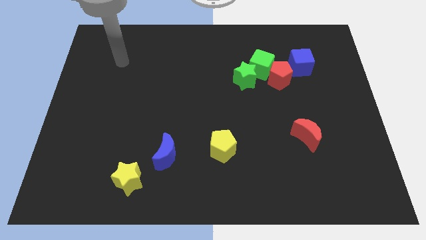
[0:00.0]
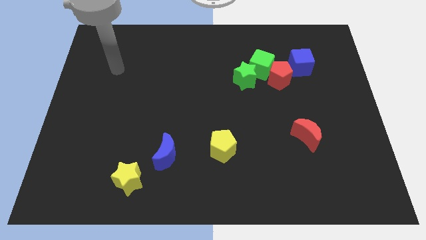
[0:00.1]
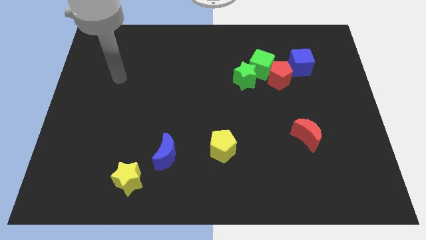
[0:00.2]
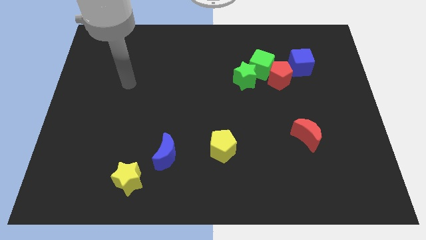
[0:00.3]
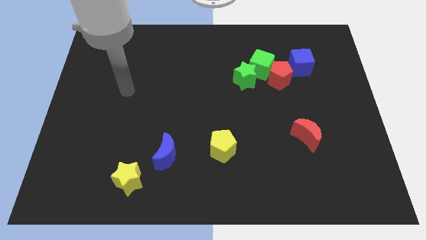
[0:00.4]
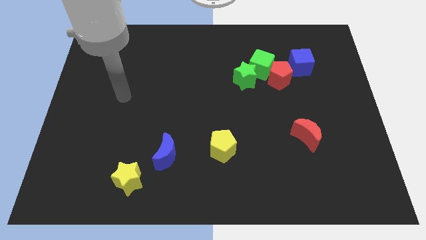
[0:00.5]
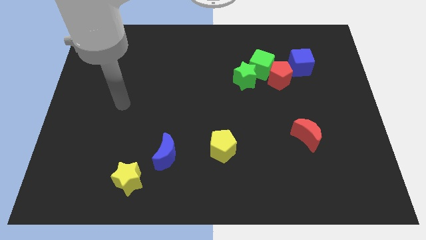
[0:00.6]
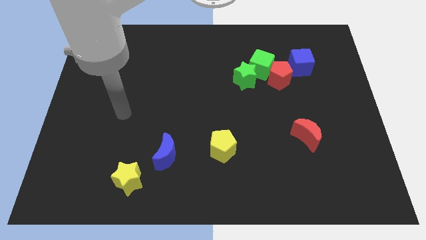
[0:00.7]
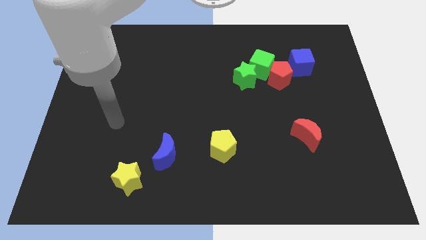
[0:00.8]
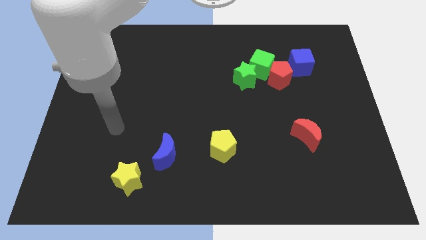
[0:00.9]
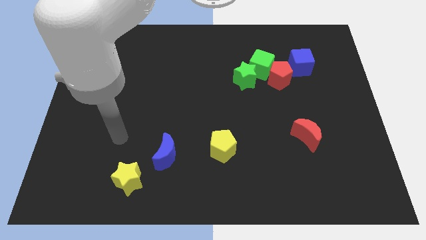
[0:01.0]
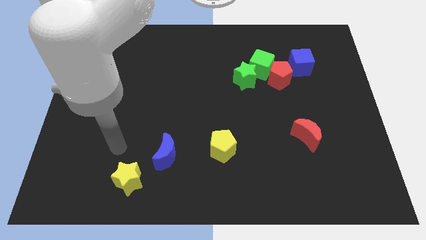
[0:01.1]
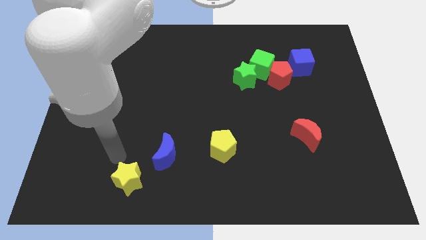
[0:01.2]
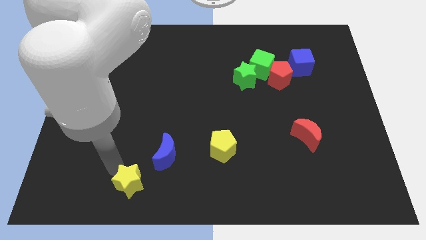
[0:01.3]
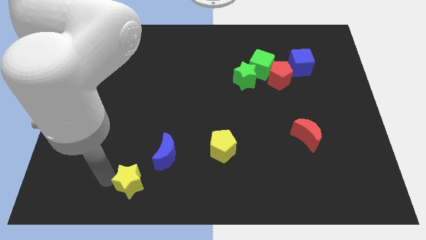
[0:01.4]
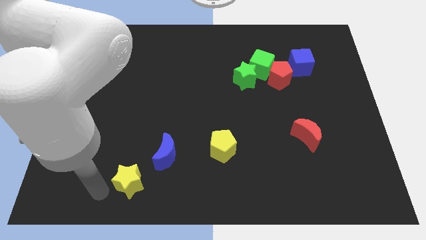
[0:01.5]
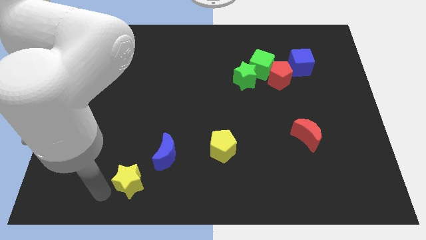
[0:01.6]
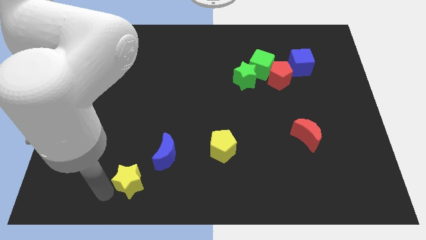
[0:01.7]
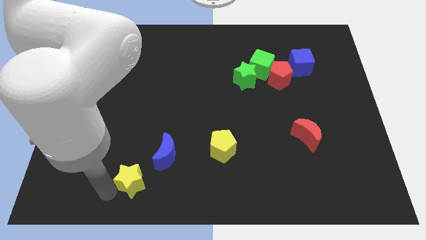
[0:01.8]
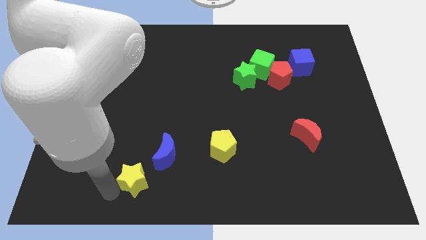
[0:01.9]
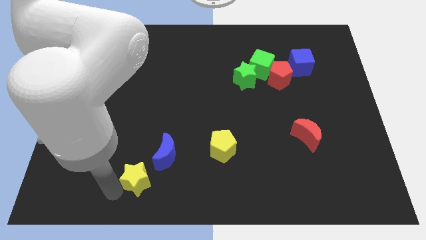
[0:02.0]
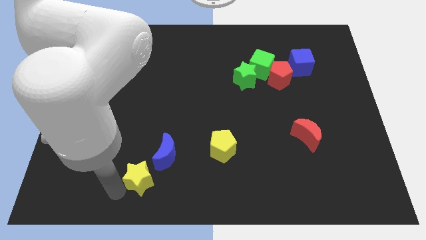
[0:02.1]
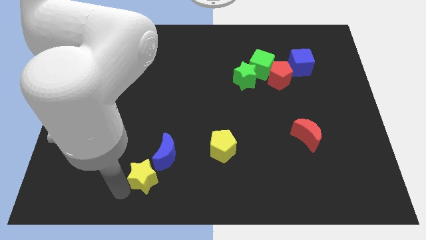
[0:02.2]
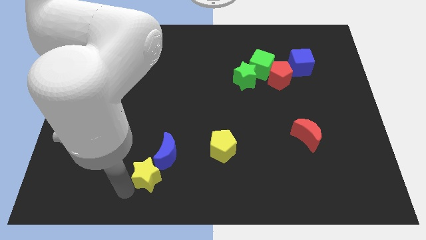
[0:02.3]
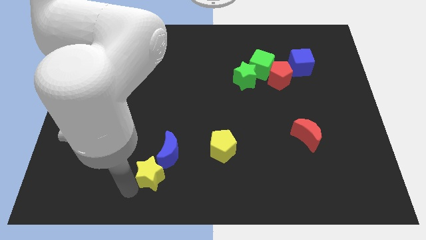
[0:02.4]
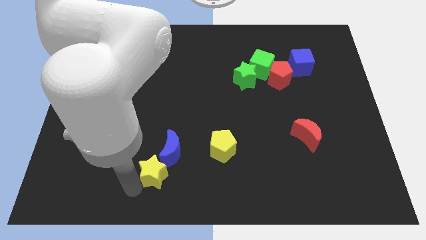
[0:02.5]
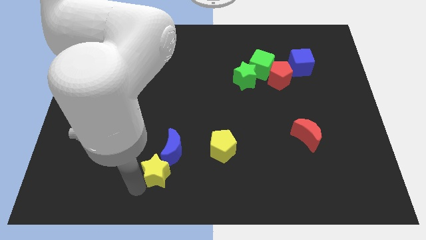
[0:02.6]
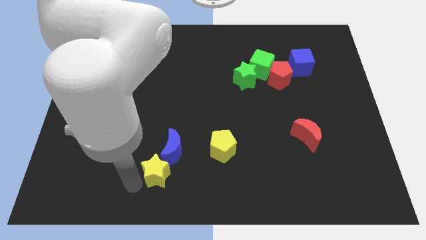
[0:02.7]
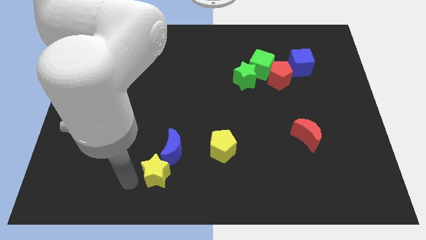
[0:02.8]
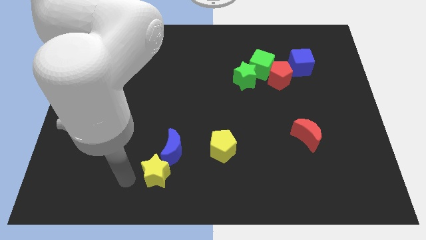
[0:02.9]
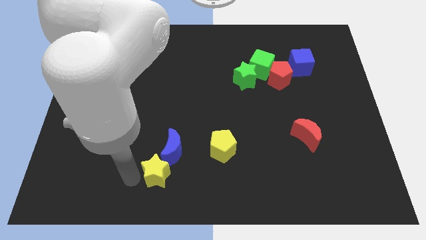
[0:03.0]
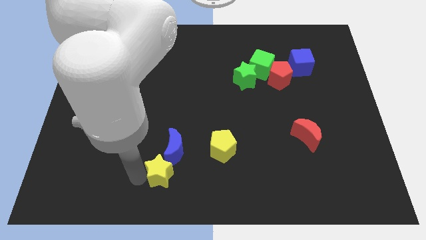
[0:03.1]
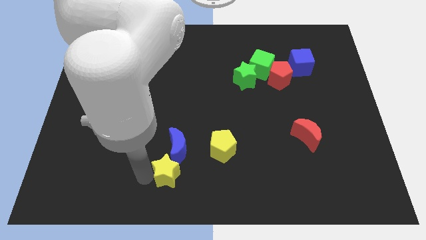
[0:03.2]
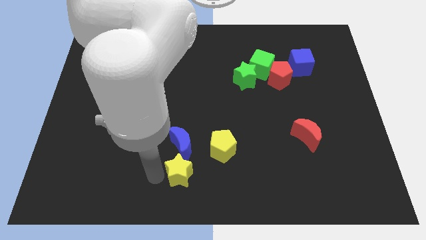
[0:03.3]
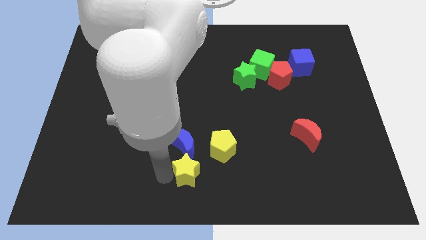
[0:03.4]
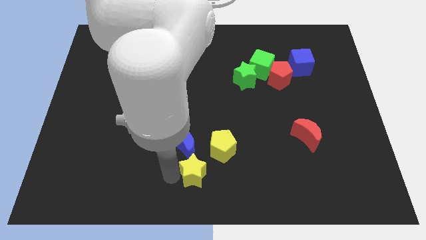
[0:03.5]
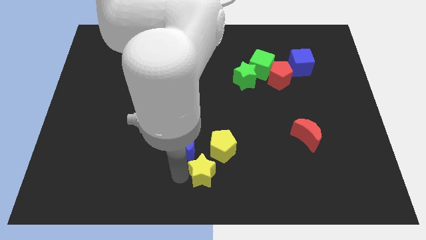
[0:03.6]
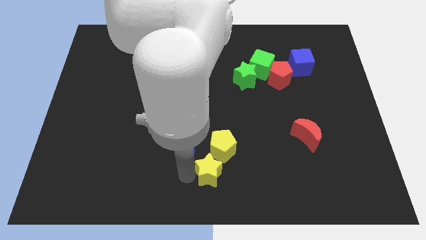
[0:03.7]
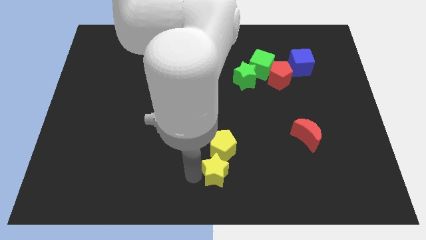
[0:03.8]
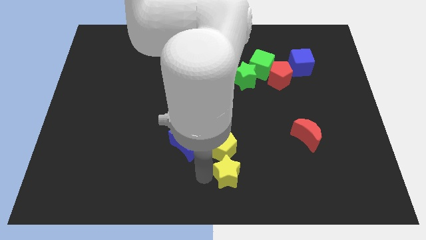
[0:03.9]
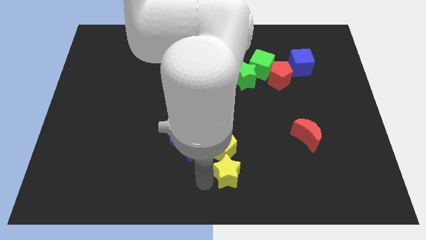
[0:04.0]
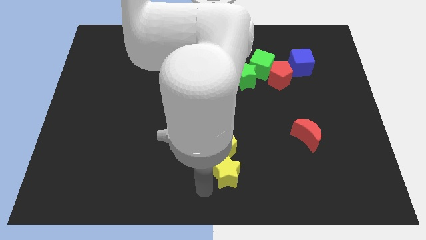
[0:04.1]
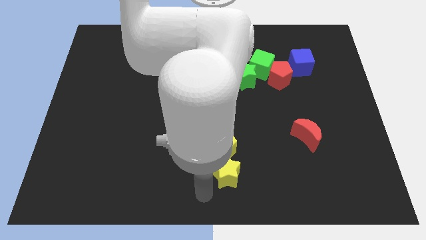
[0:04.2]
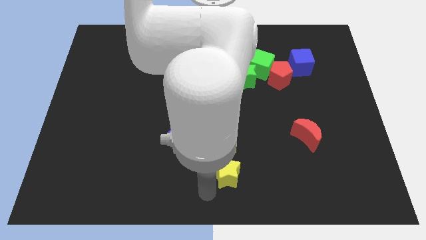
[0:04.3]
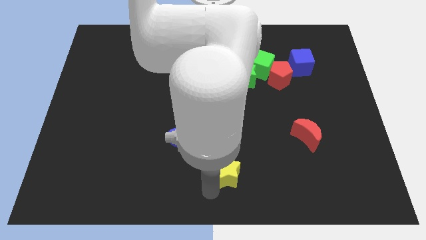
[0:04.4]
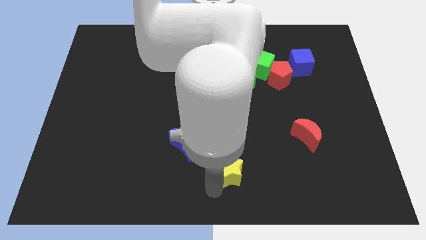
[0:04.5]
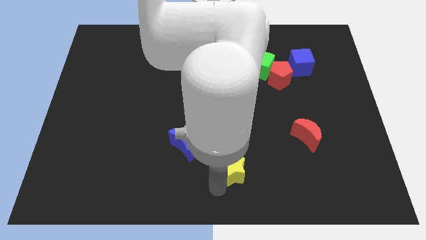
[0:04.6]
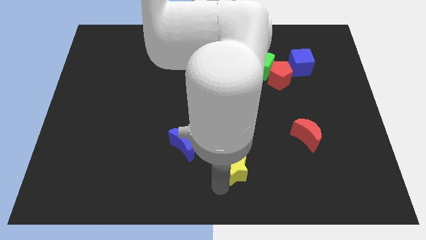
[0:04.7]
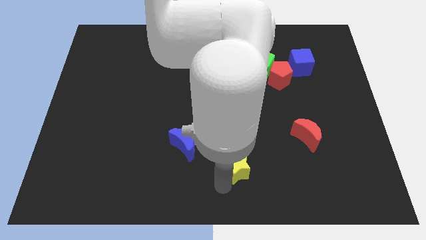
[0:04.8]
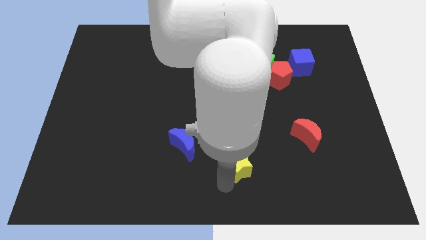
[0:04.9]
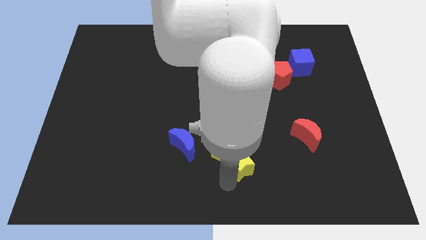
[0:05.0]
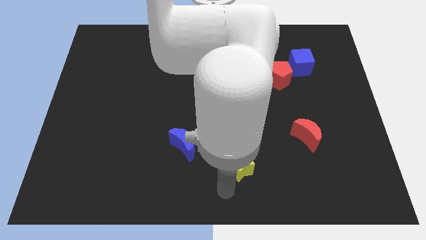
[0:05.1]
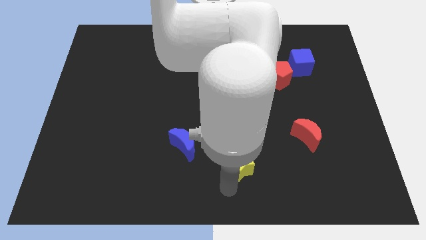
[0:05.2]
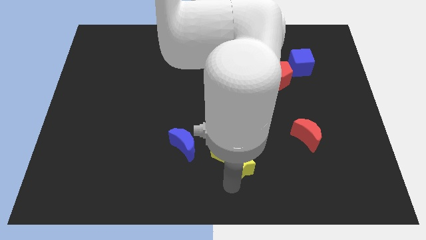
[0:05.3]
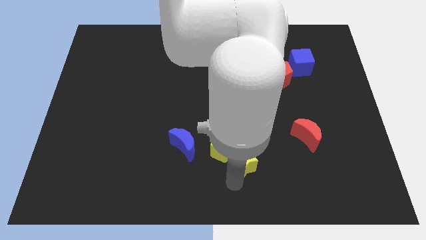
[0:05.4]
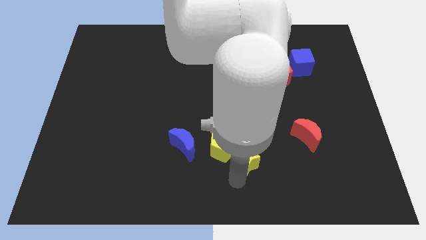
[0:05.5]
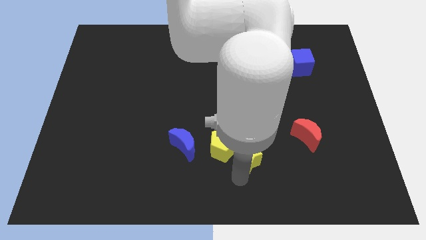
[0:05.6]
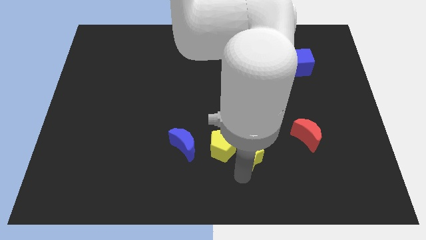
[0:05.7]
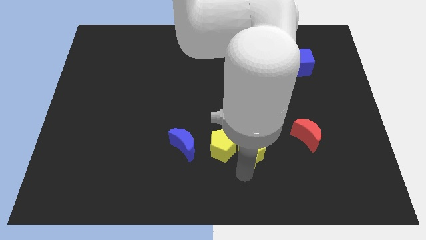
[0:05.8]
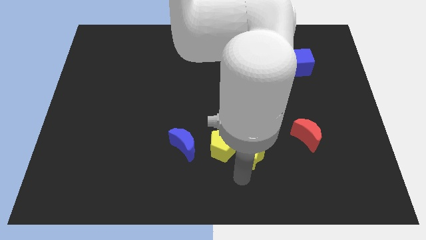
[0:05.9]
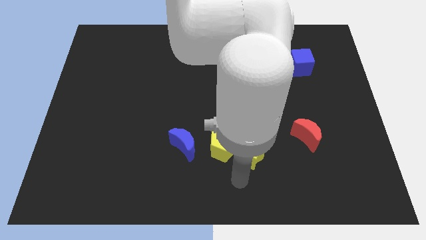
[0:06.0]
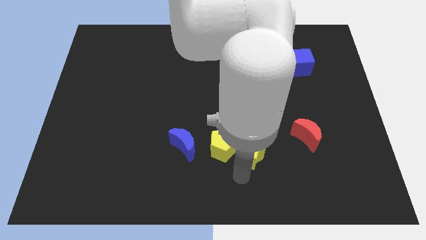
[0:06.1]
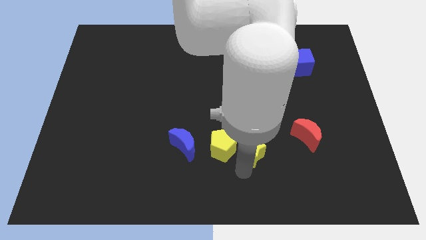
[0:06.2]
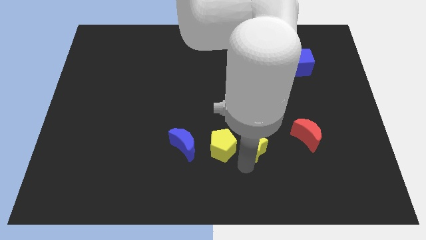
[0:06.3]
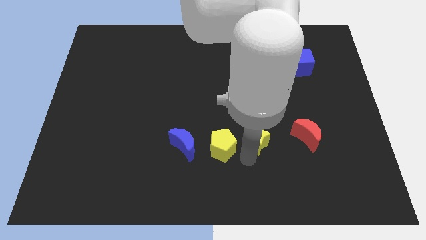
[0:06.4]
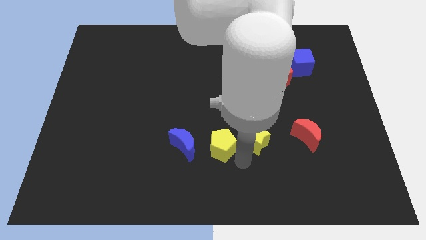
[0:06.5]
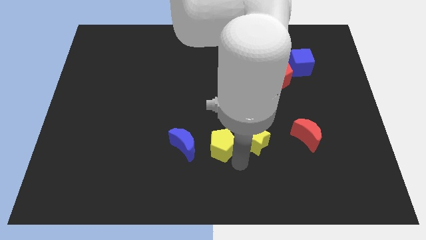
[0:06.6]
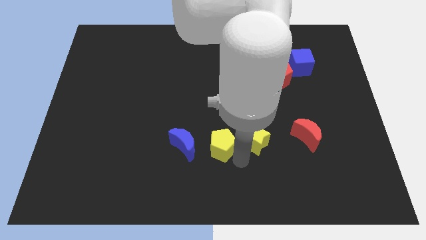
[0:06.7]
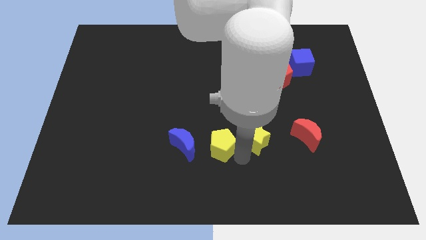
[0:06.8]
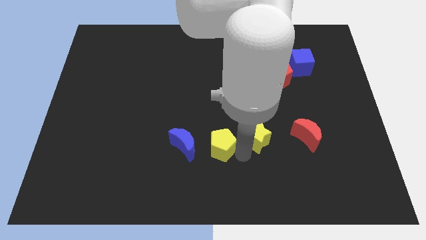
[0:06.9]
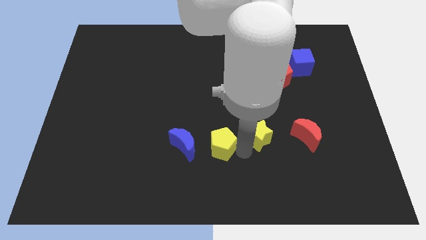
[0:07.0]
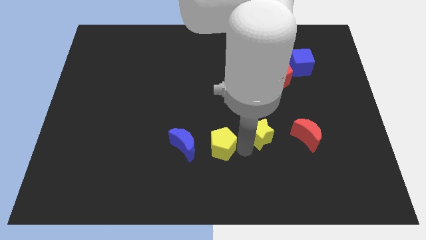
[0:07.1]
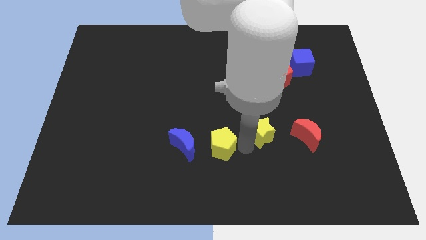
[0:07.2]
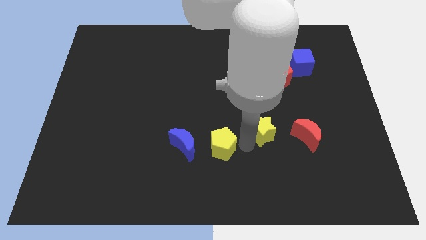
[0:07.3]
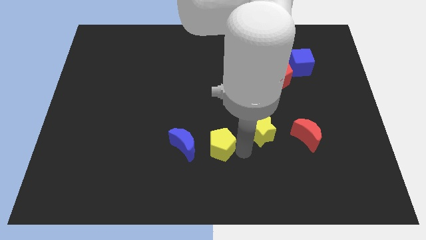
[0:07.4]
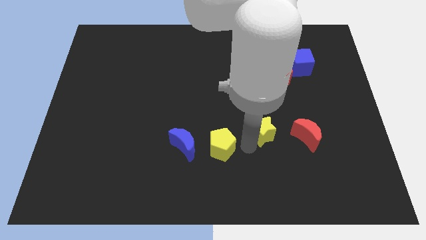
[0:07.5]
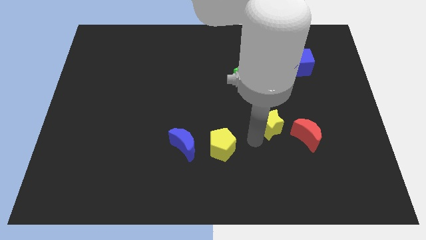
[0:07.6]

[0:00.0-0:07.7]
move the yellow star to the bottom side of the red pentagon
